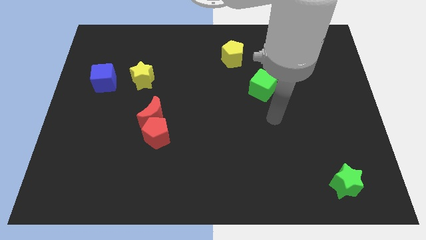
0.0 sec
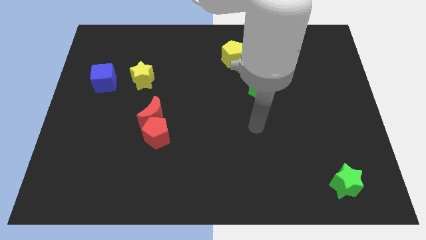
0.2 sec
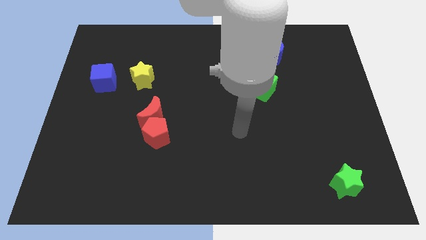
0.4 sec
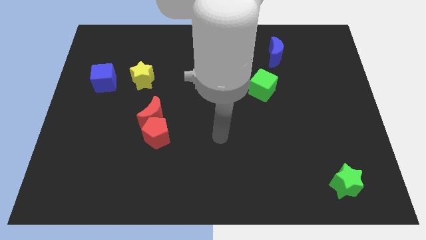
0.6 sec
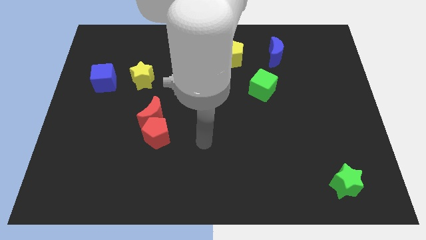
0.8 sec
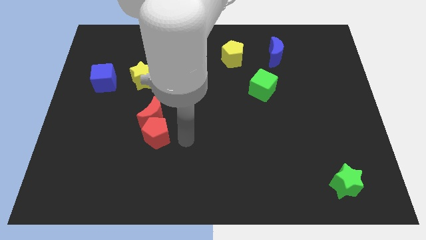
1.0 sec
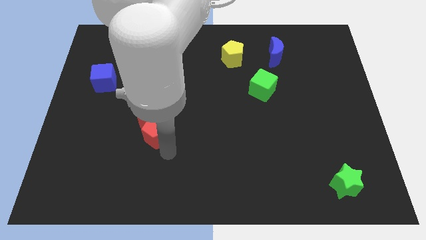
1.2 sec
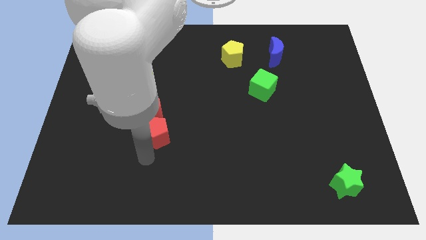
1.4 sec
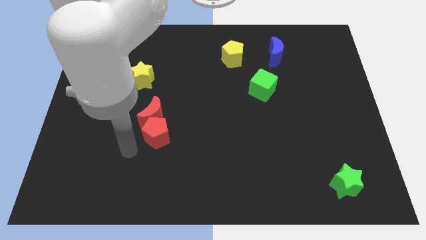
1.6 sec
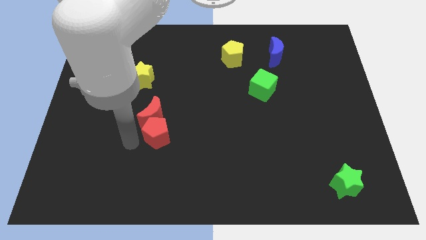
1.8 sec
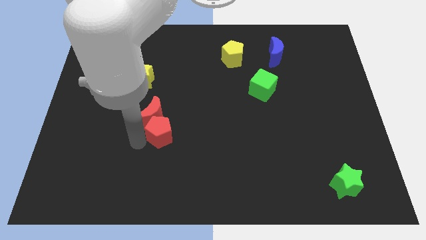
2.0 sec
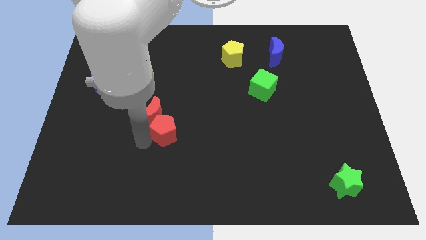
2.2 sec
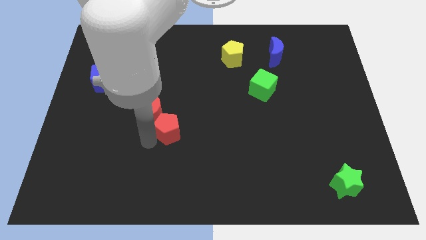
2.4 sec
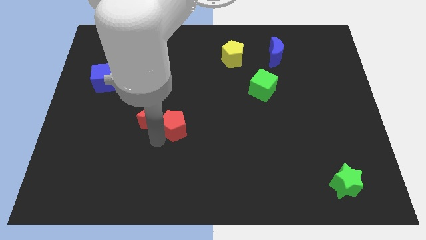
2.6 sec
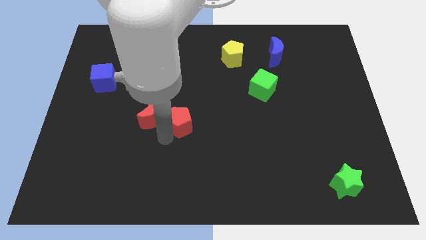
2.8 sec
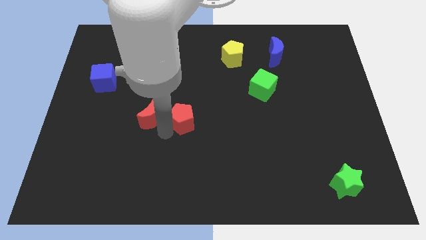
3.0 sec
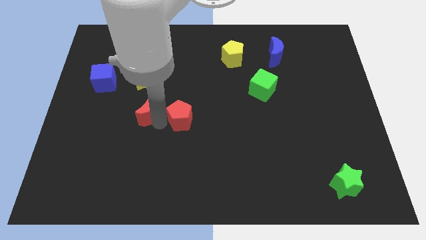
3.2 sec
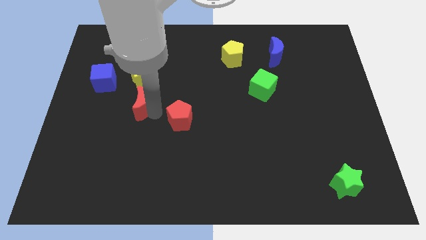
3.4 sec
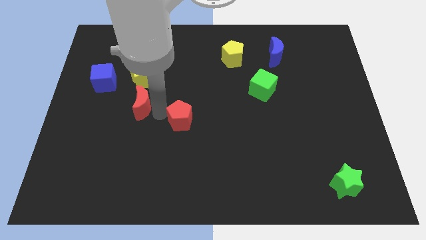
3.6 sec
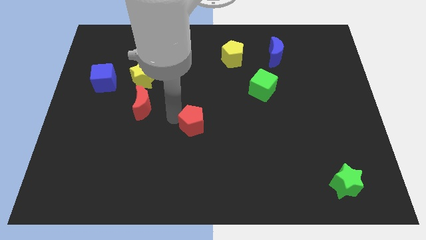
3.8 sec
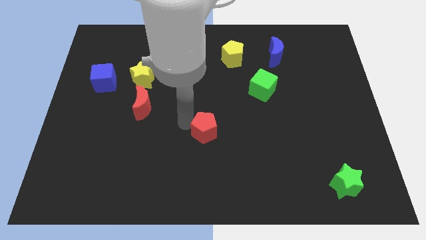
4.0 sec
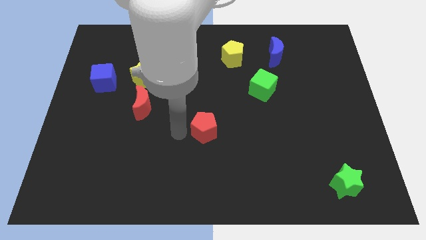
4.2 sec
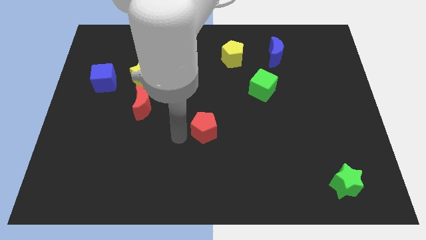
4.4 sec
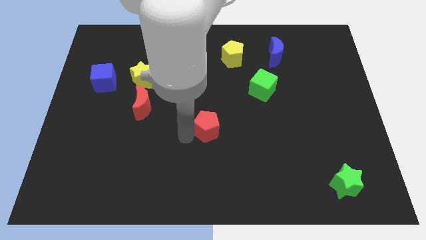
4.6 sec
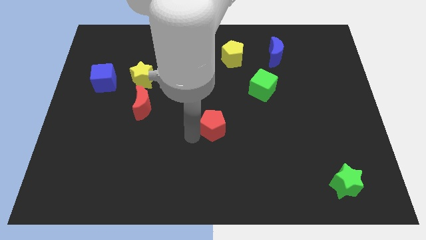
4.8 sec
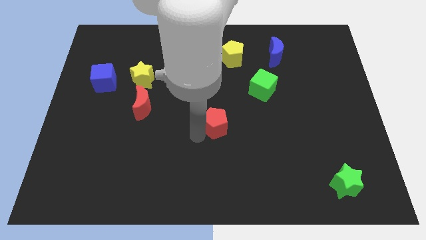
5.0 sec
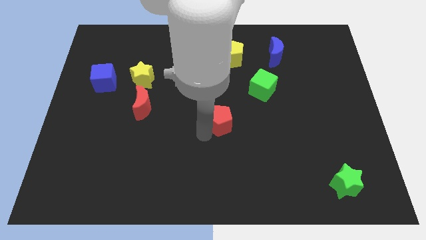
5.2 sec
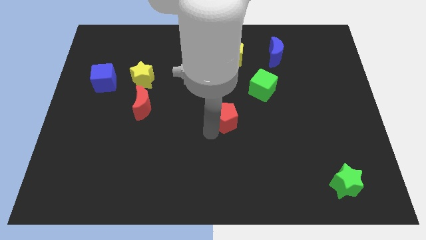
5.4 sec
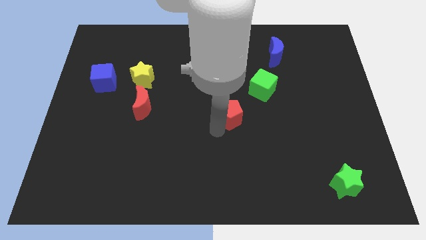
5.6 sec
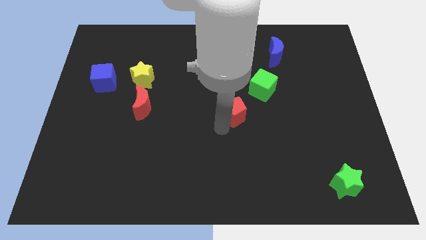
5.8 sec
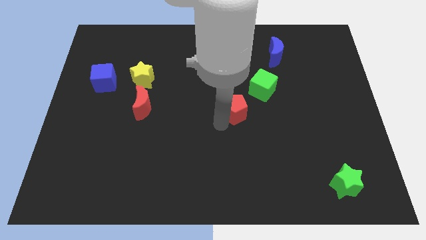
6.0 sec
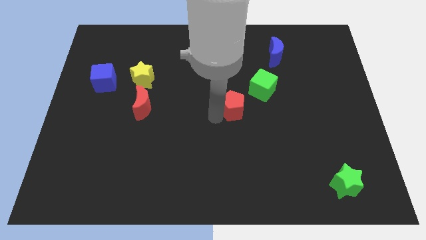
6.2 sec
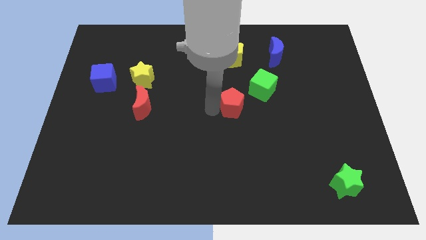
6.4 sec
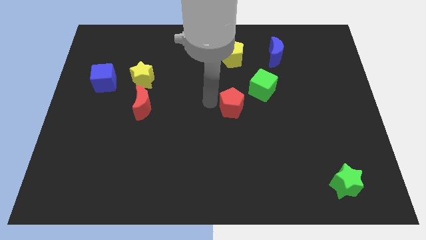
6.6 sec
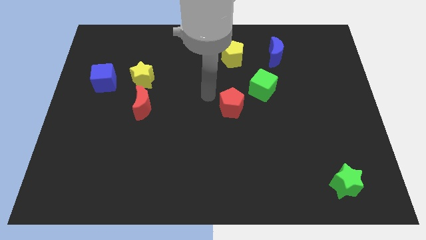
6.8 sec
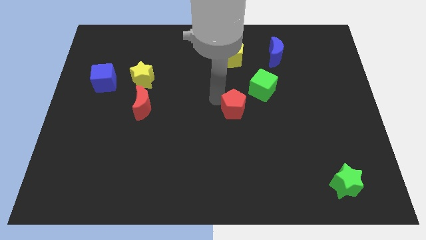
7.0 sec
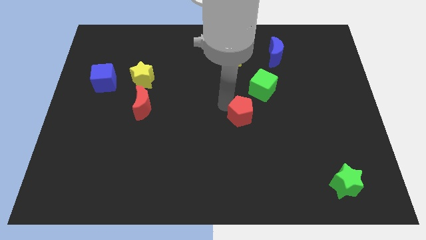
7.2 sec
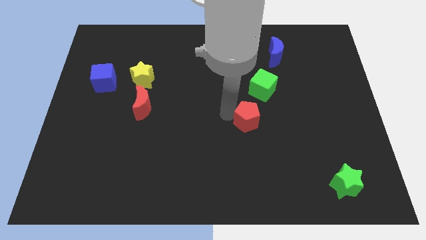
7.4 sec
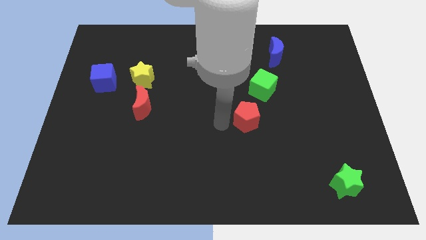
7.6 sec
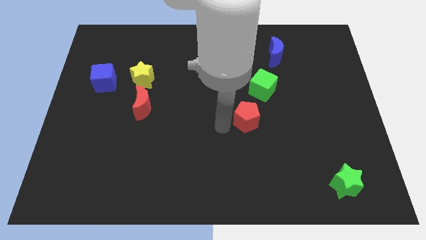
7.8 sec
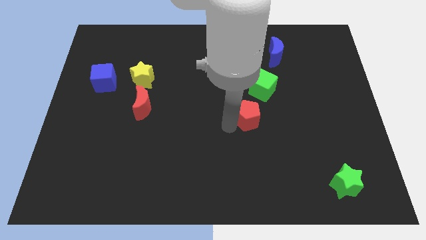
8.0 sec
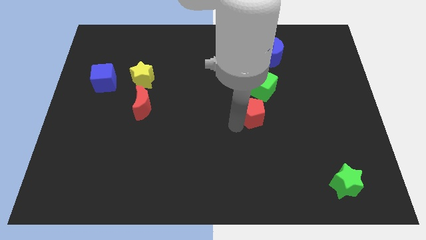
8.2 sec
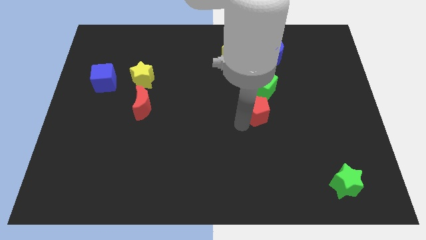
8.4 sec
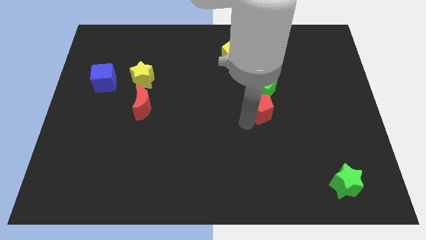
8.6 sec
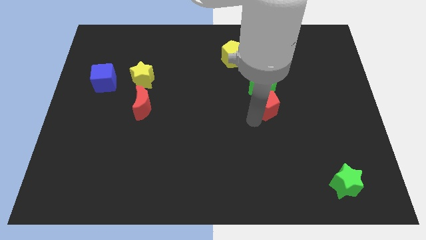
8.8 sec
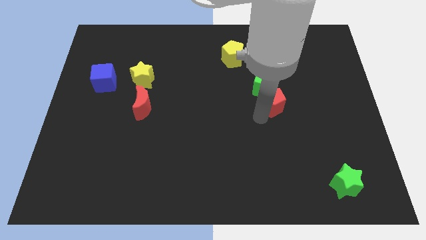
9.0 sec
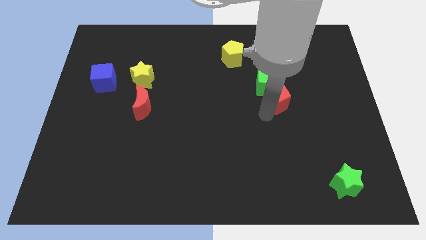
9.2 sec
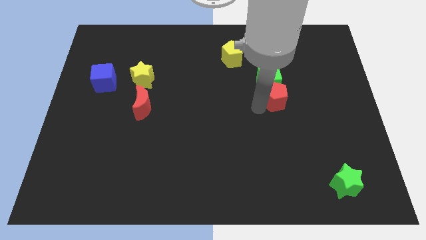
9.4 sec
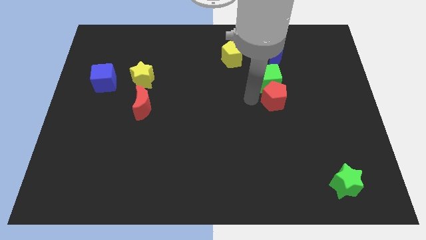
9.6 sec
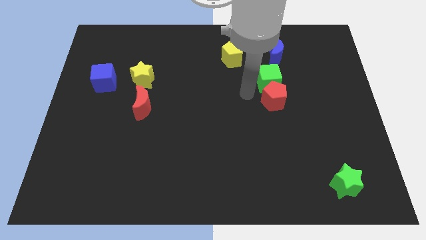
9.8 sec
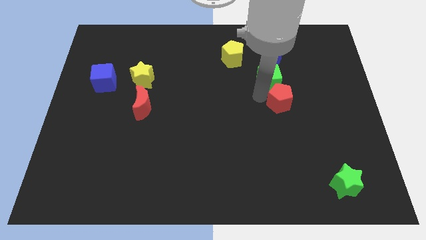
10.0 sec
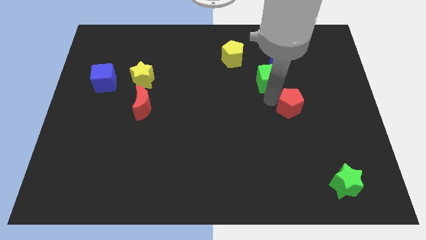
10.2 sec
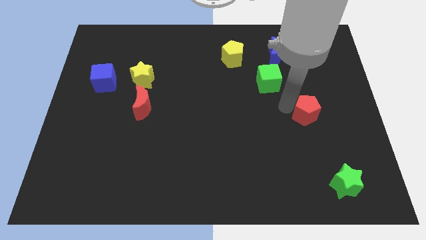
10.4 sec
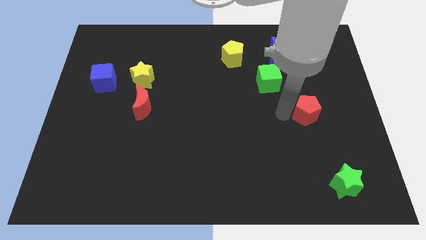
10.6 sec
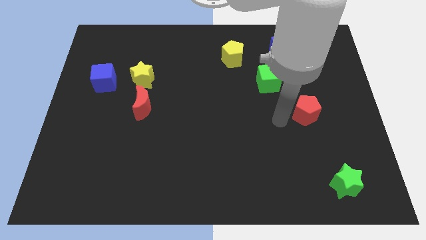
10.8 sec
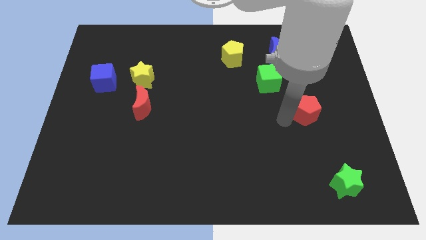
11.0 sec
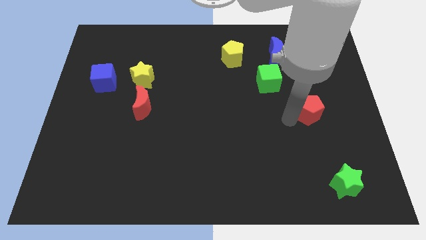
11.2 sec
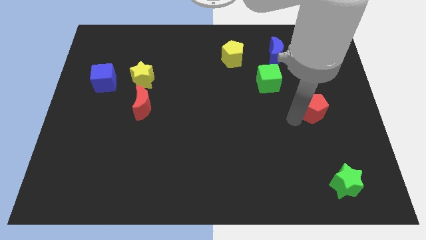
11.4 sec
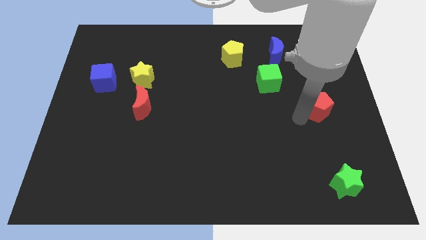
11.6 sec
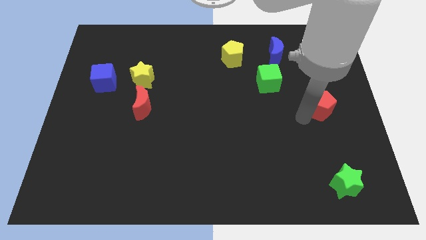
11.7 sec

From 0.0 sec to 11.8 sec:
push the red pentagon to the right side of the board
